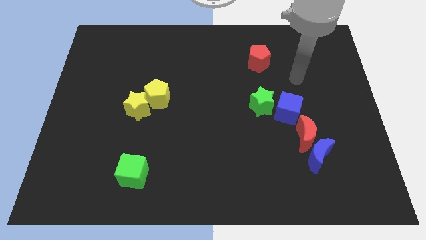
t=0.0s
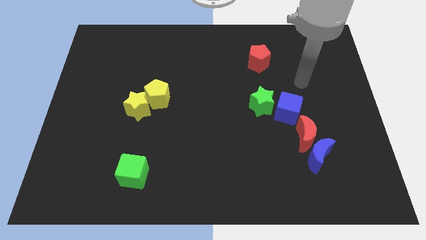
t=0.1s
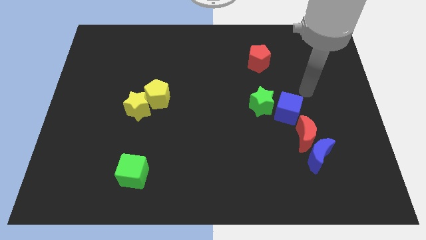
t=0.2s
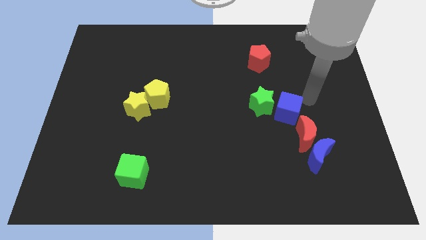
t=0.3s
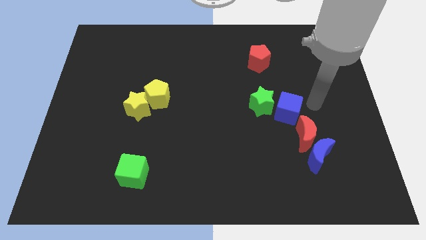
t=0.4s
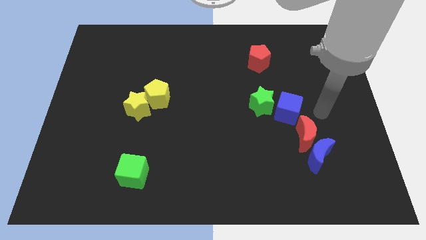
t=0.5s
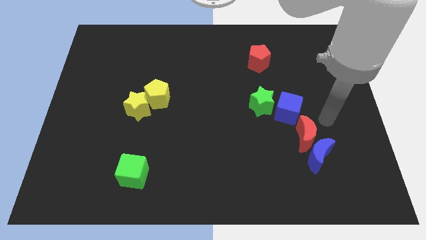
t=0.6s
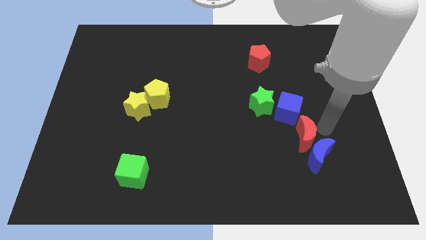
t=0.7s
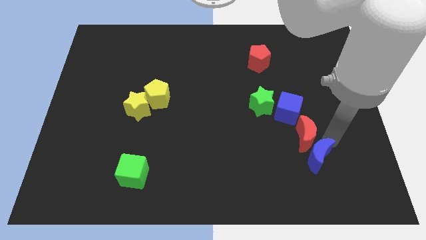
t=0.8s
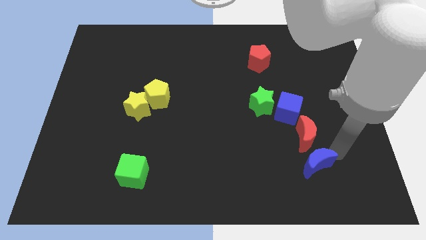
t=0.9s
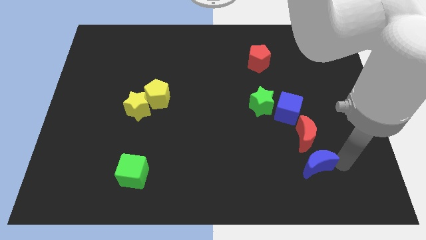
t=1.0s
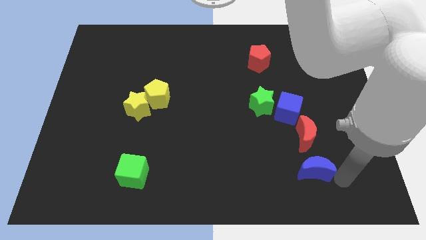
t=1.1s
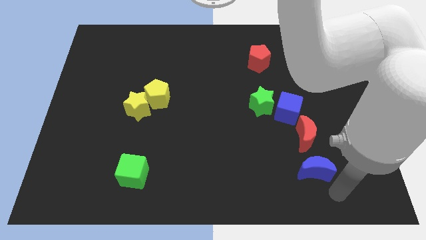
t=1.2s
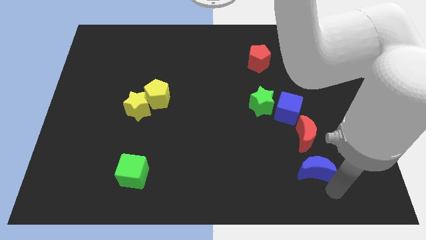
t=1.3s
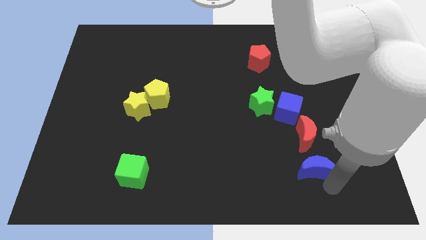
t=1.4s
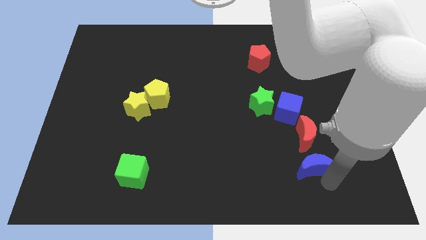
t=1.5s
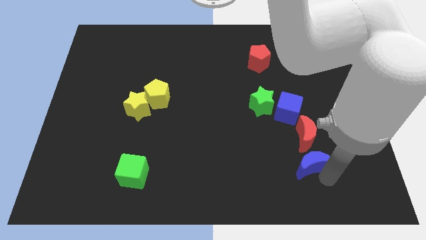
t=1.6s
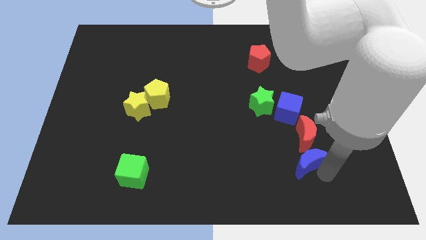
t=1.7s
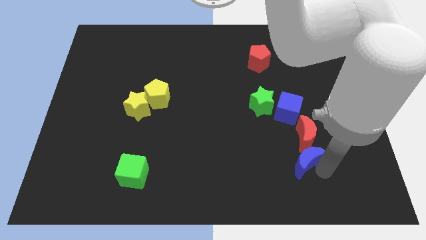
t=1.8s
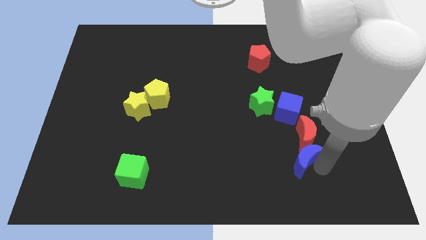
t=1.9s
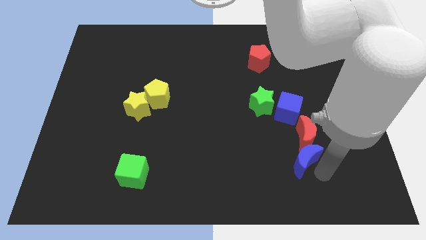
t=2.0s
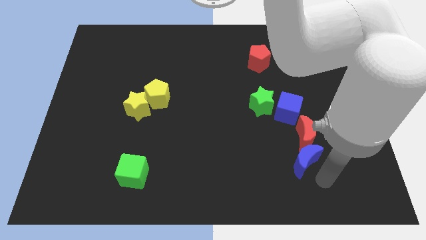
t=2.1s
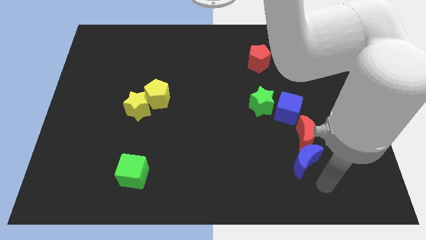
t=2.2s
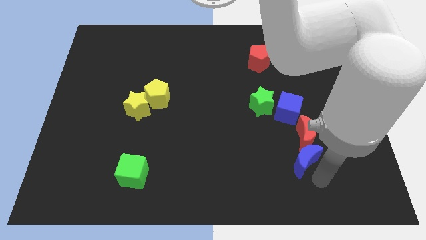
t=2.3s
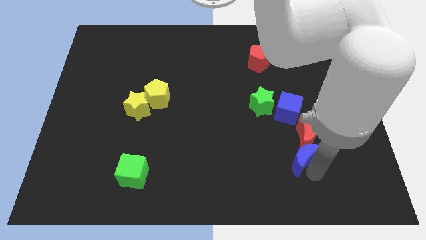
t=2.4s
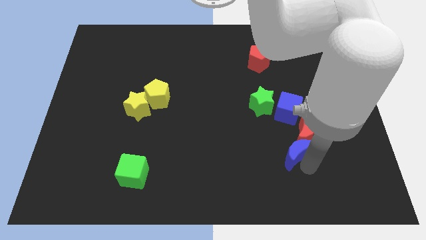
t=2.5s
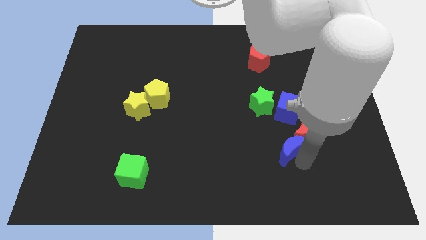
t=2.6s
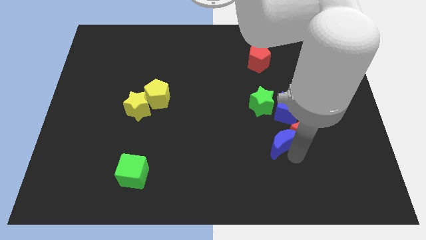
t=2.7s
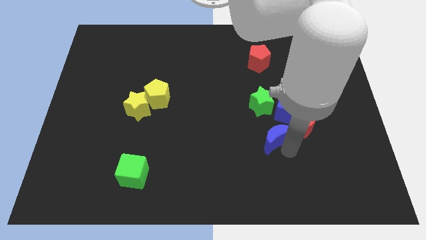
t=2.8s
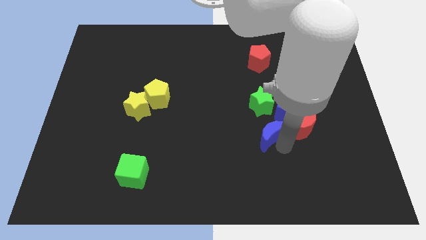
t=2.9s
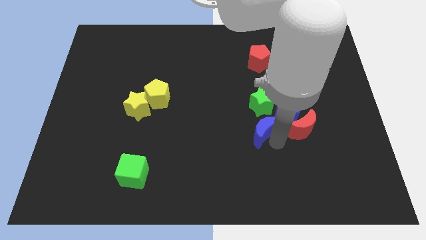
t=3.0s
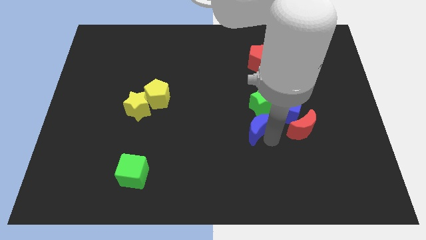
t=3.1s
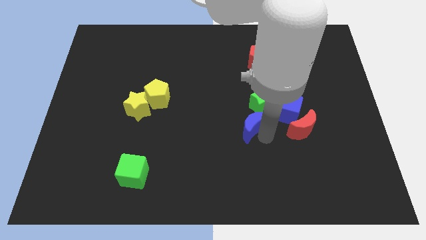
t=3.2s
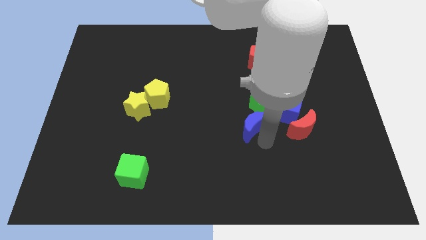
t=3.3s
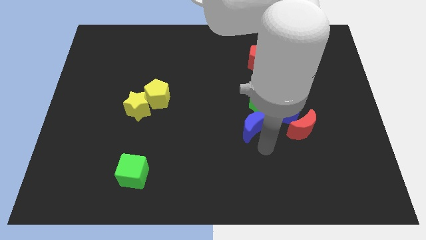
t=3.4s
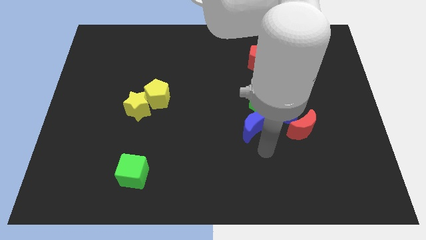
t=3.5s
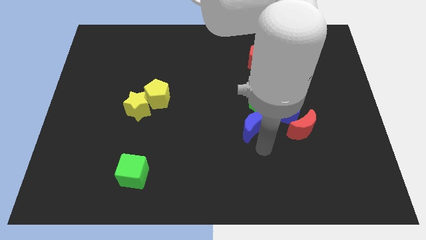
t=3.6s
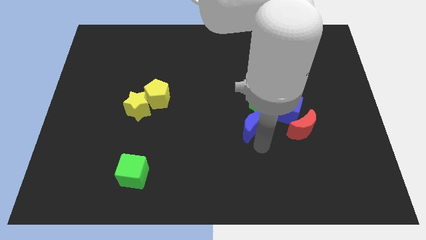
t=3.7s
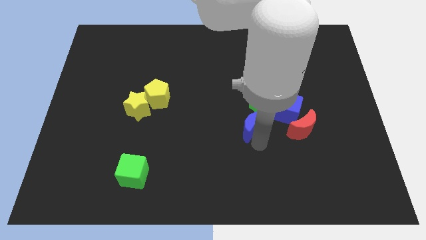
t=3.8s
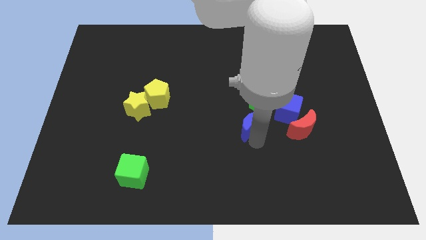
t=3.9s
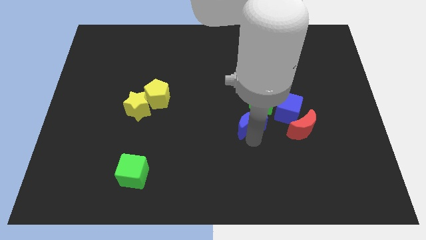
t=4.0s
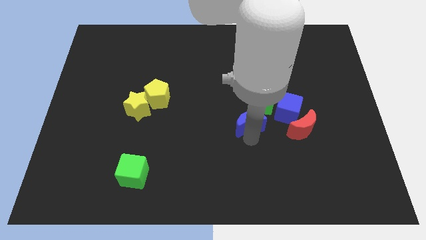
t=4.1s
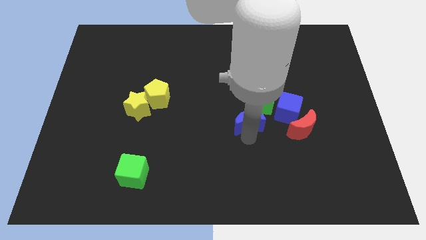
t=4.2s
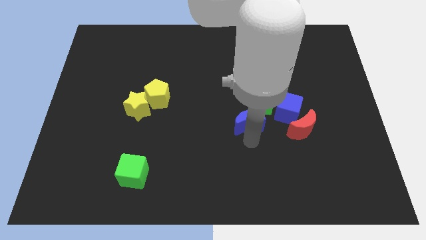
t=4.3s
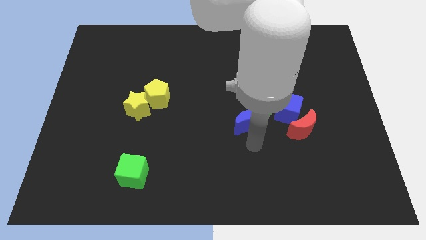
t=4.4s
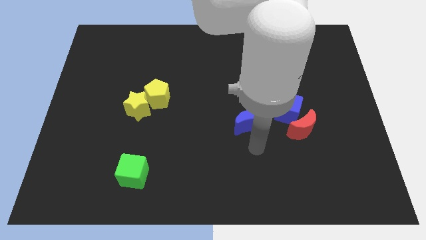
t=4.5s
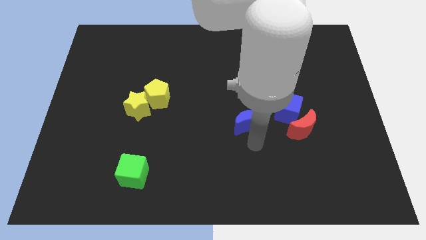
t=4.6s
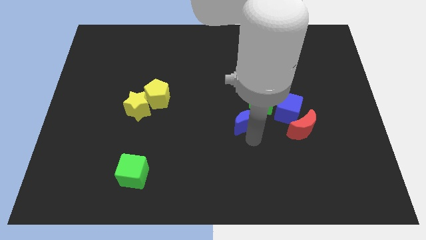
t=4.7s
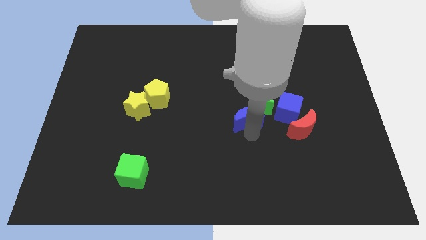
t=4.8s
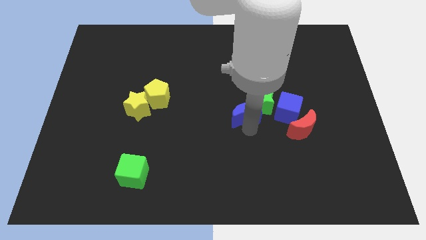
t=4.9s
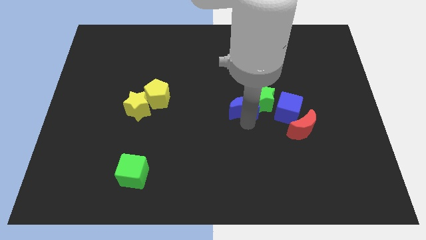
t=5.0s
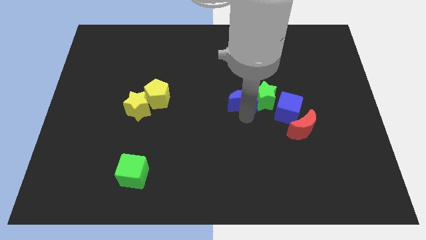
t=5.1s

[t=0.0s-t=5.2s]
move the blue moon up and left diagonally

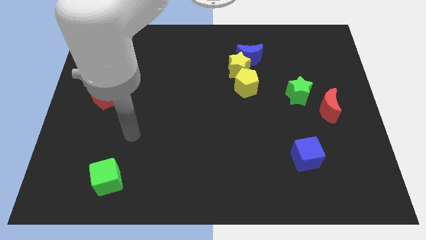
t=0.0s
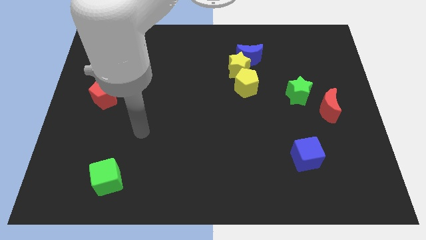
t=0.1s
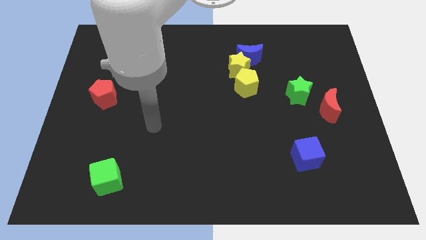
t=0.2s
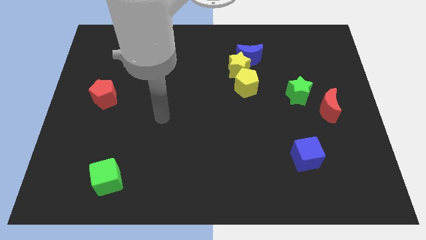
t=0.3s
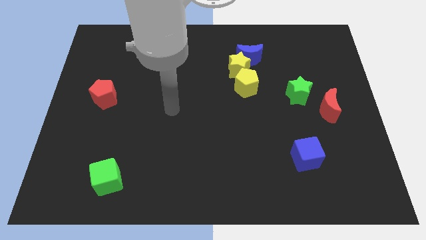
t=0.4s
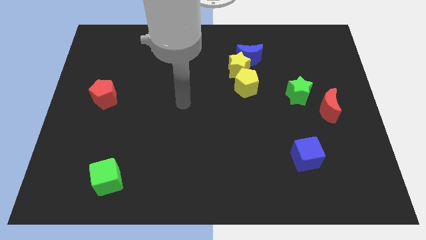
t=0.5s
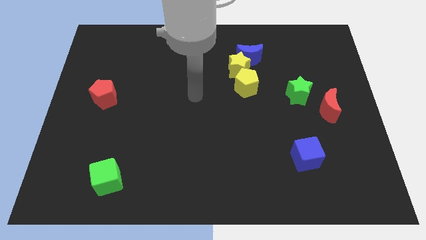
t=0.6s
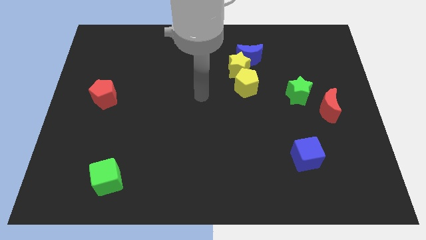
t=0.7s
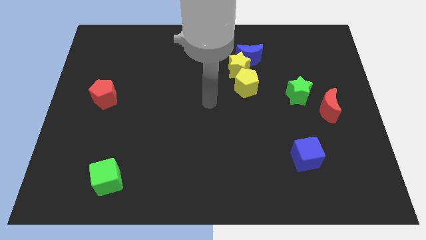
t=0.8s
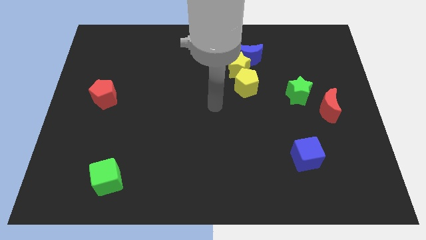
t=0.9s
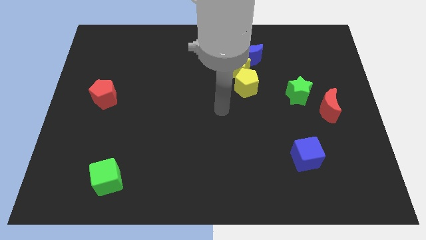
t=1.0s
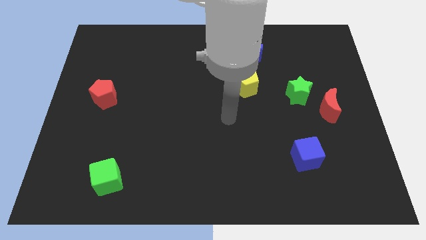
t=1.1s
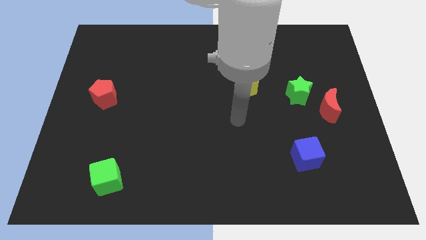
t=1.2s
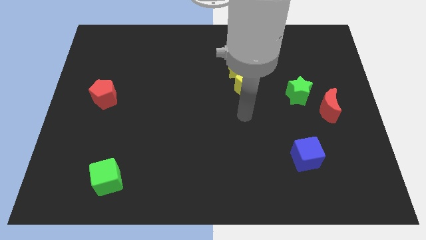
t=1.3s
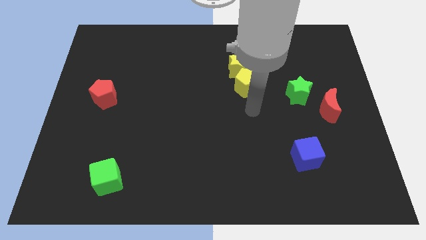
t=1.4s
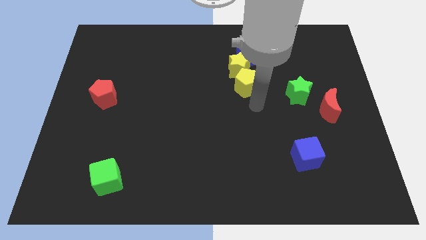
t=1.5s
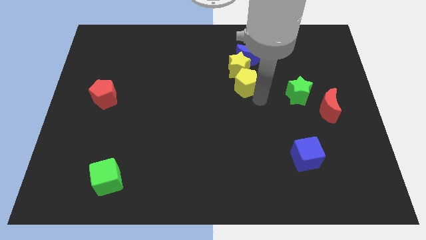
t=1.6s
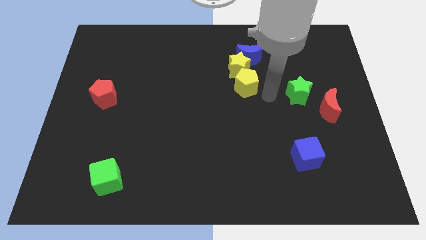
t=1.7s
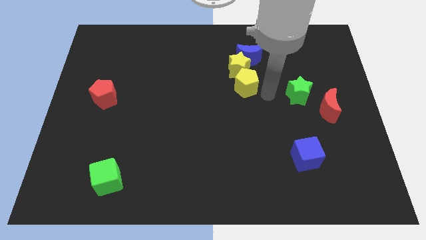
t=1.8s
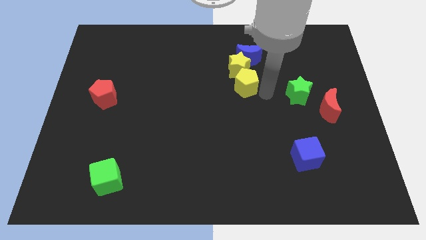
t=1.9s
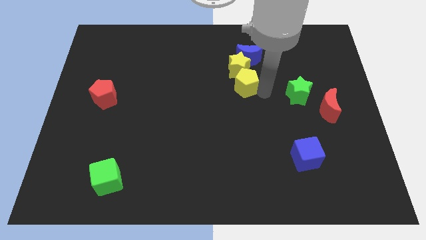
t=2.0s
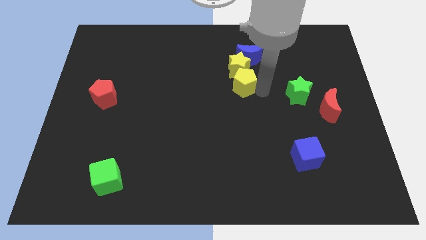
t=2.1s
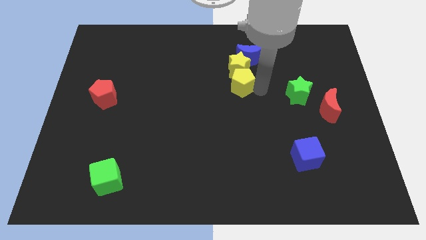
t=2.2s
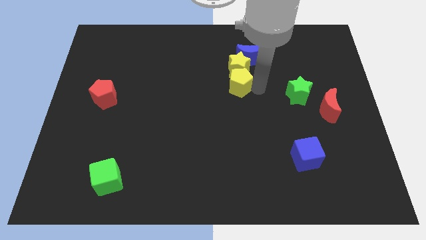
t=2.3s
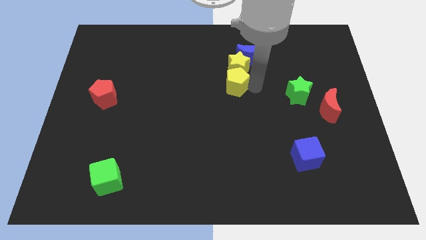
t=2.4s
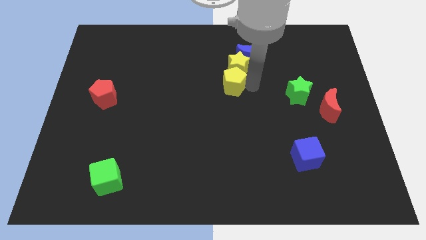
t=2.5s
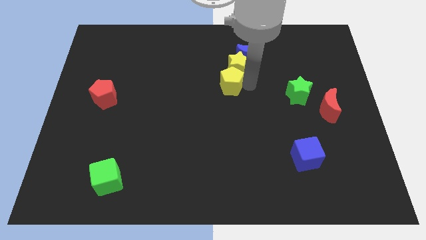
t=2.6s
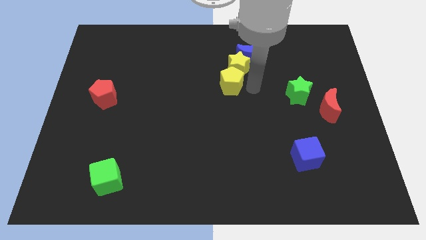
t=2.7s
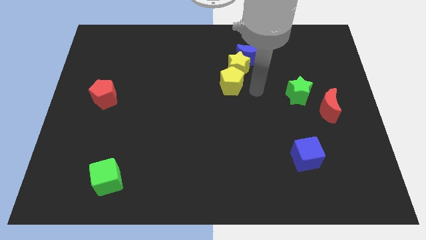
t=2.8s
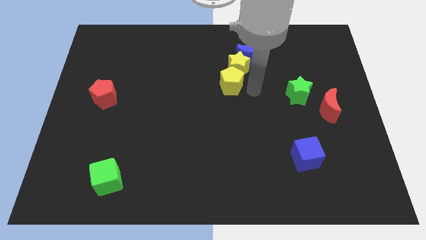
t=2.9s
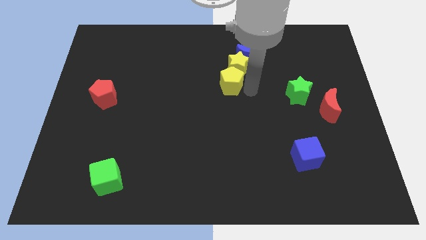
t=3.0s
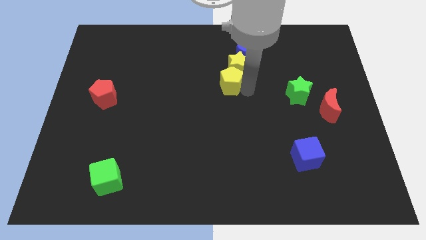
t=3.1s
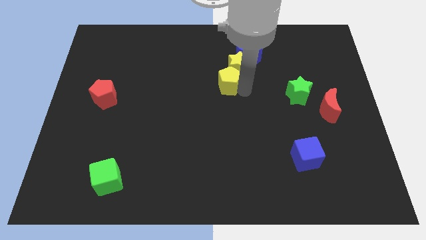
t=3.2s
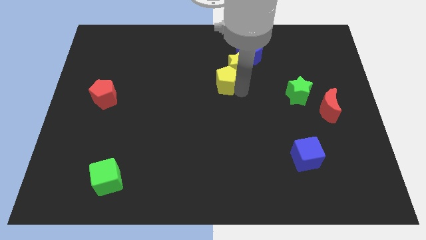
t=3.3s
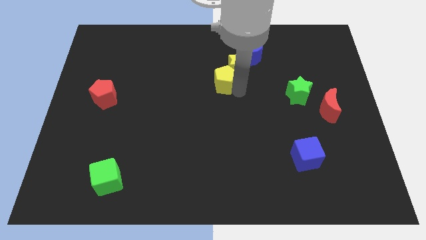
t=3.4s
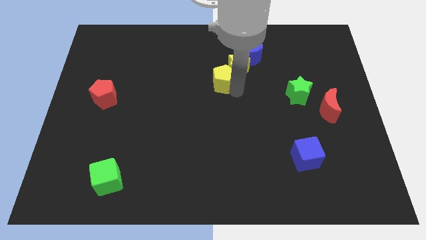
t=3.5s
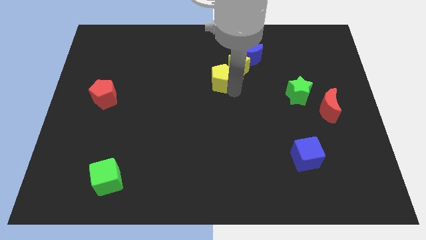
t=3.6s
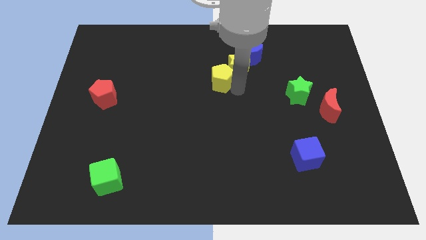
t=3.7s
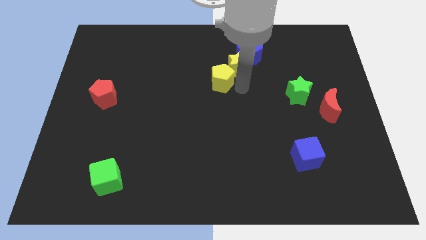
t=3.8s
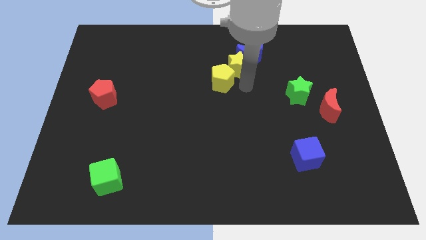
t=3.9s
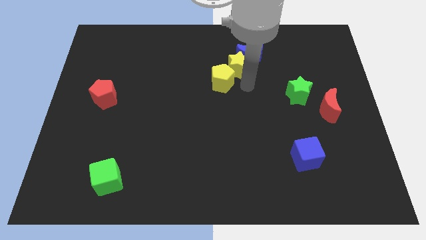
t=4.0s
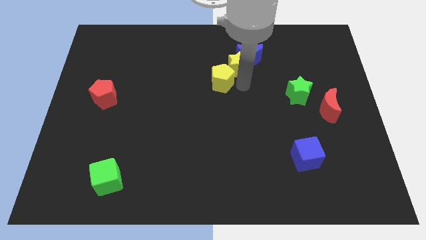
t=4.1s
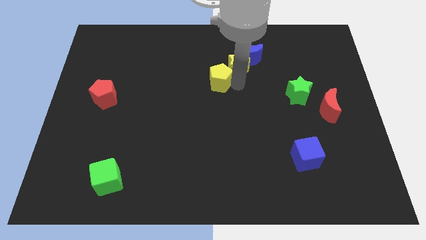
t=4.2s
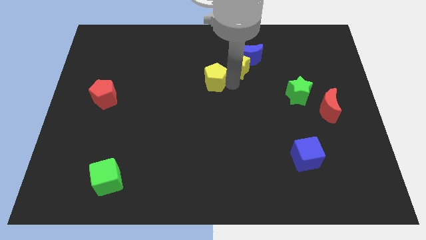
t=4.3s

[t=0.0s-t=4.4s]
slightly slide the yellow pentagon left
